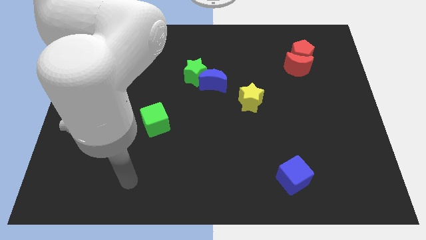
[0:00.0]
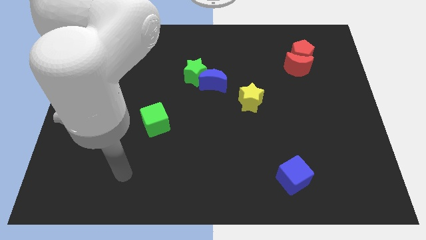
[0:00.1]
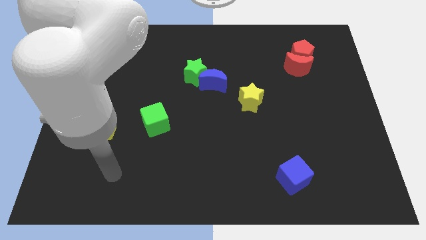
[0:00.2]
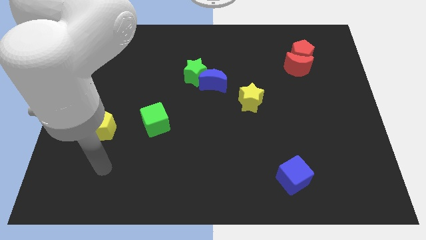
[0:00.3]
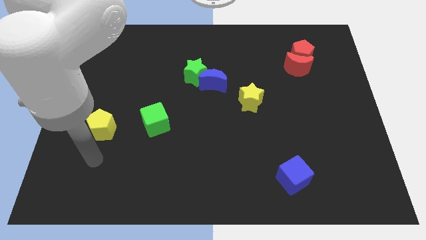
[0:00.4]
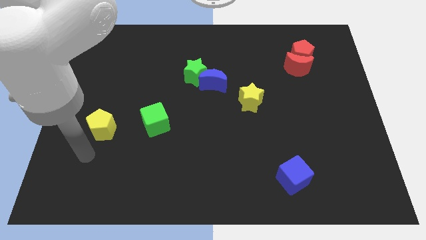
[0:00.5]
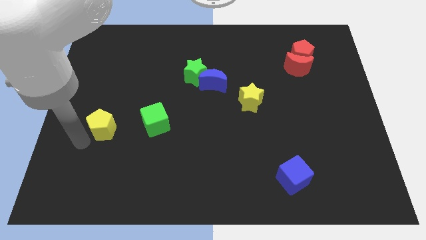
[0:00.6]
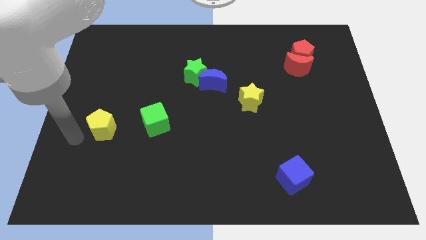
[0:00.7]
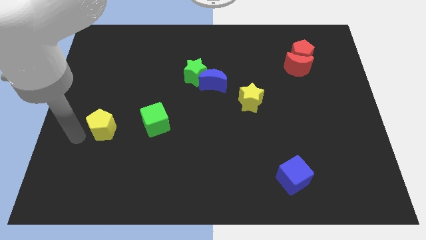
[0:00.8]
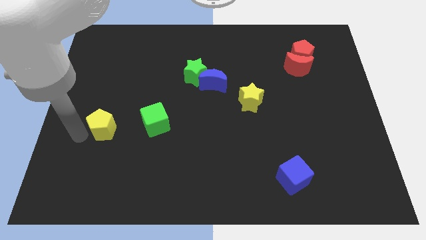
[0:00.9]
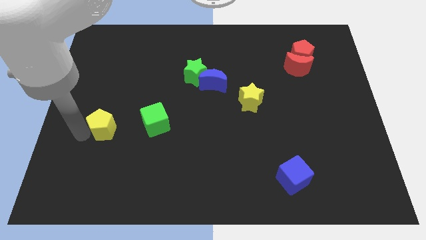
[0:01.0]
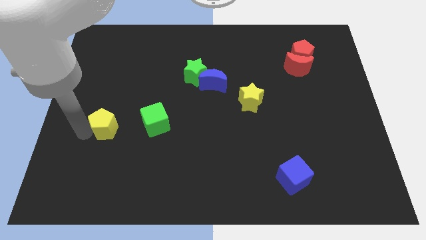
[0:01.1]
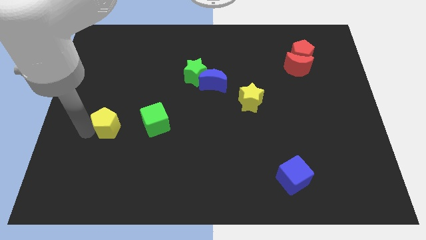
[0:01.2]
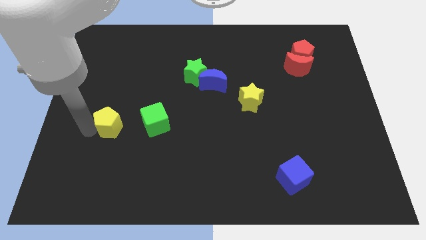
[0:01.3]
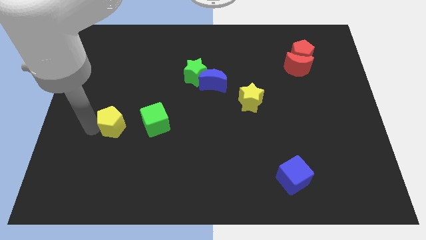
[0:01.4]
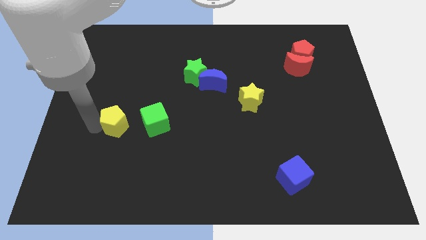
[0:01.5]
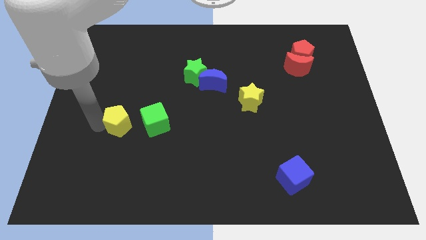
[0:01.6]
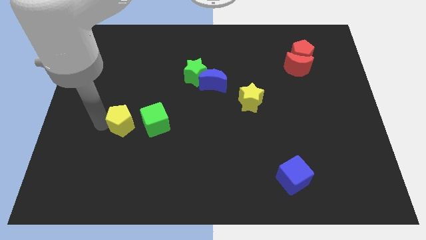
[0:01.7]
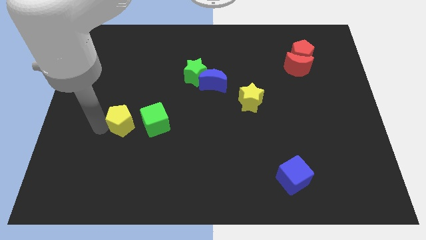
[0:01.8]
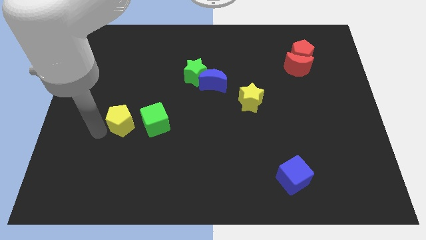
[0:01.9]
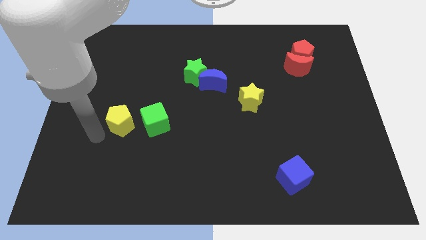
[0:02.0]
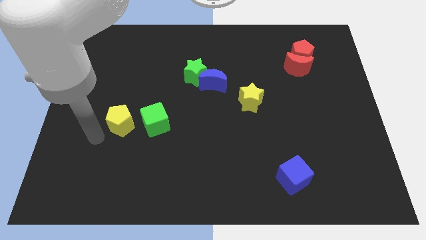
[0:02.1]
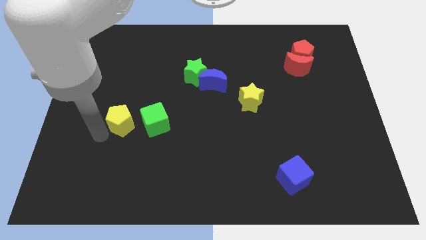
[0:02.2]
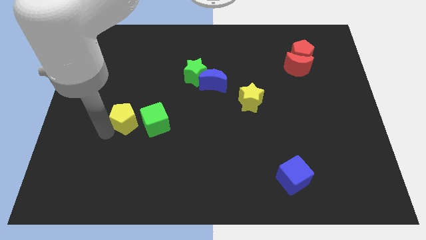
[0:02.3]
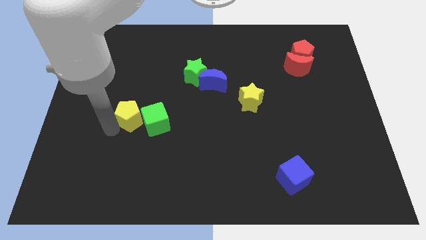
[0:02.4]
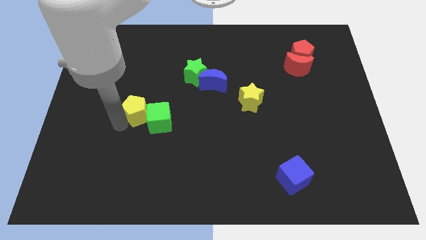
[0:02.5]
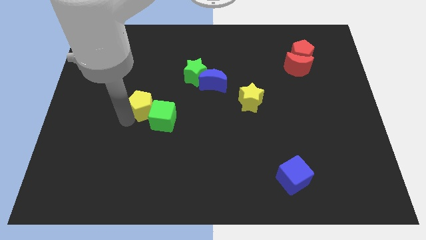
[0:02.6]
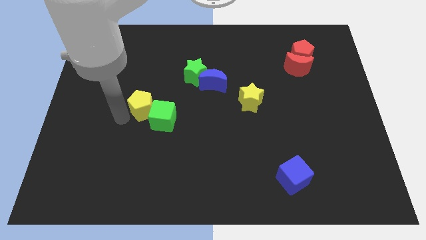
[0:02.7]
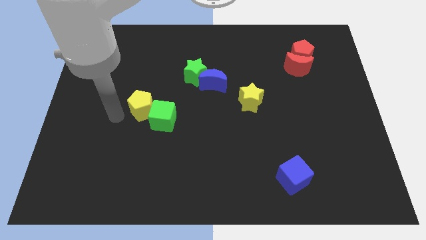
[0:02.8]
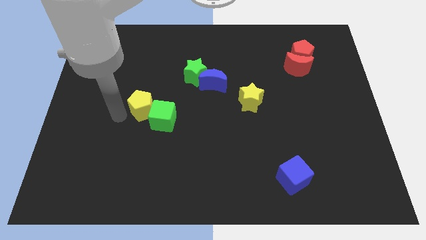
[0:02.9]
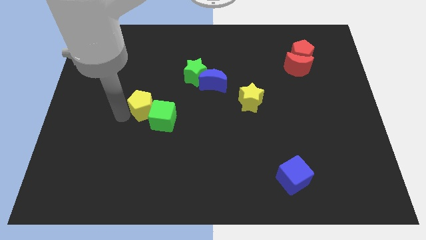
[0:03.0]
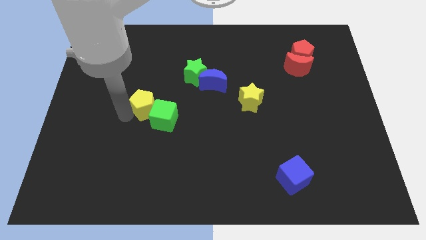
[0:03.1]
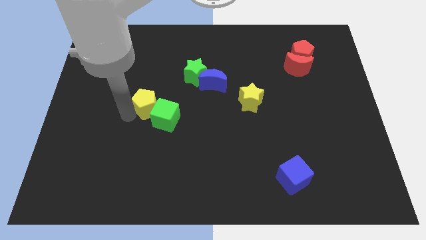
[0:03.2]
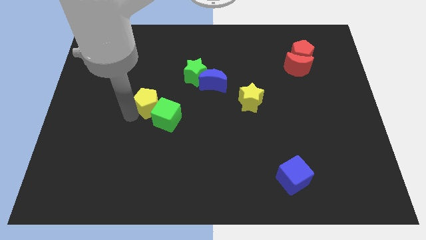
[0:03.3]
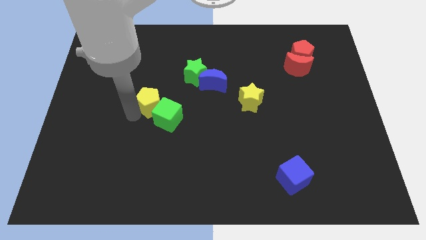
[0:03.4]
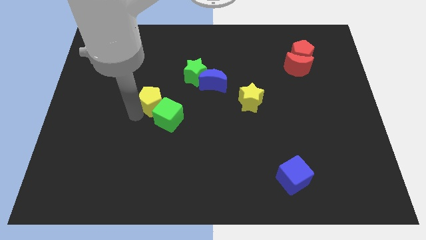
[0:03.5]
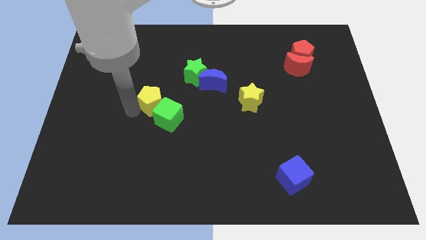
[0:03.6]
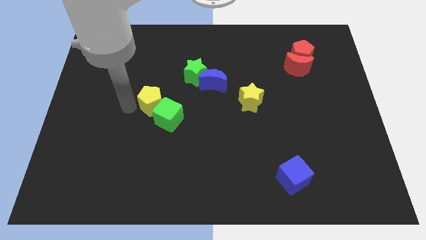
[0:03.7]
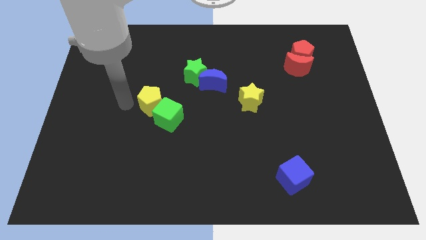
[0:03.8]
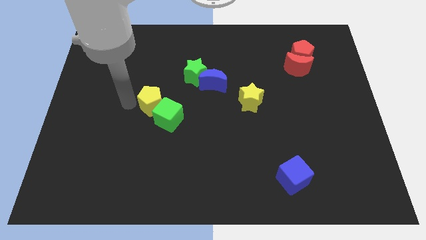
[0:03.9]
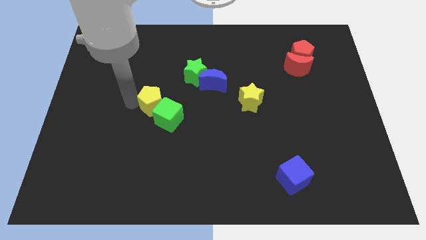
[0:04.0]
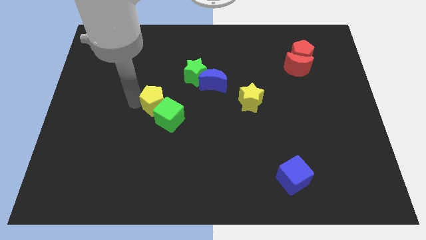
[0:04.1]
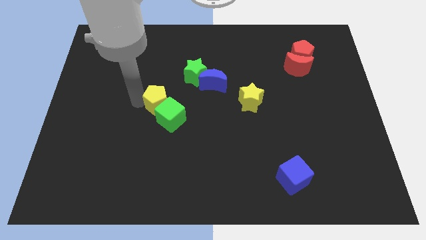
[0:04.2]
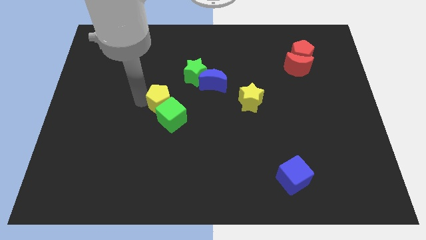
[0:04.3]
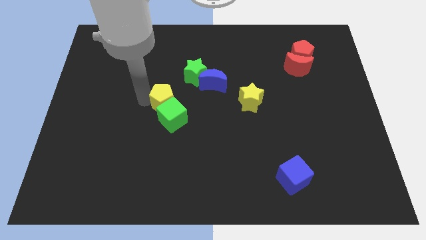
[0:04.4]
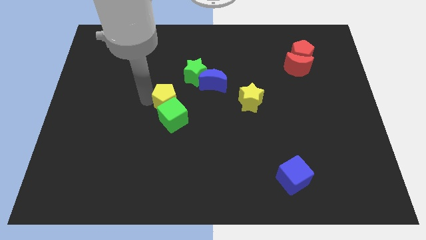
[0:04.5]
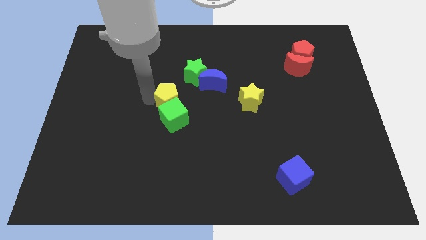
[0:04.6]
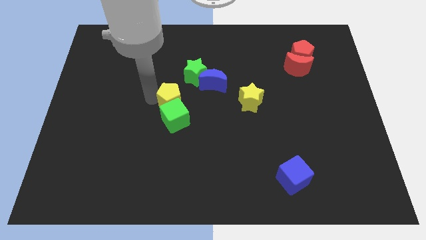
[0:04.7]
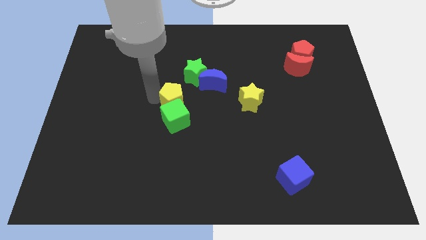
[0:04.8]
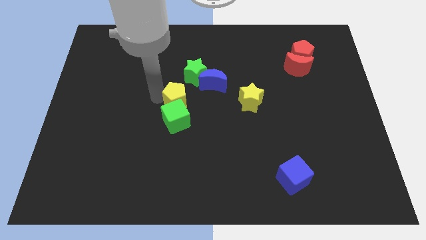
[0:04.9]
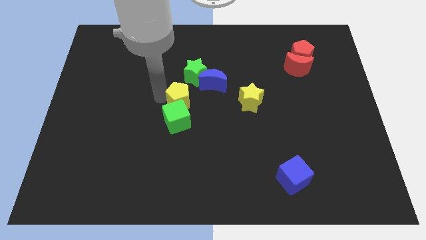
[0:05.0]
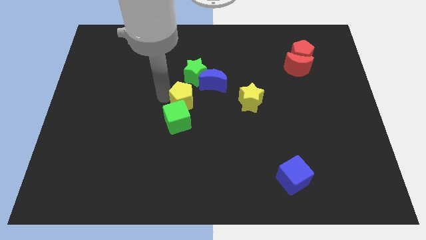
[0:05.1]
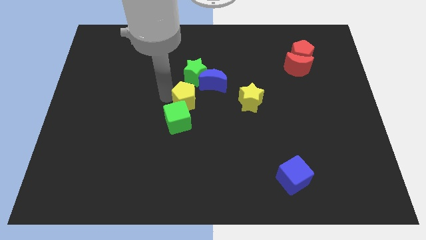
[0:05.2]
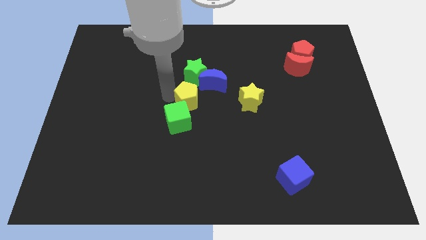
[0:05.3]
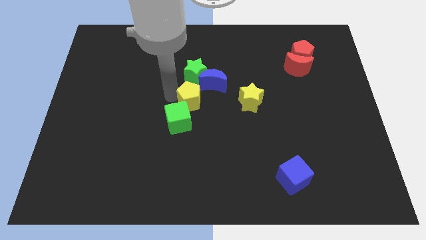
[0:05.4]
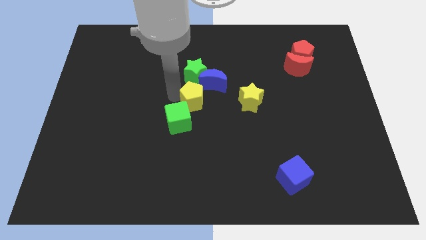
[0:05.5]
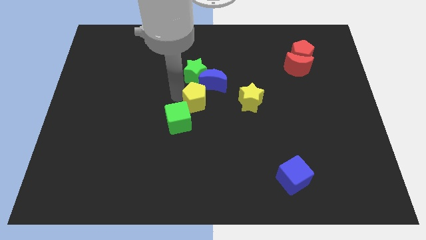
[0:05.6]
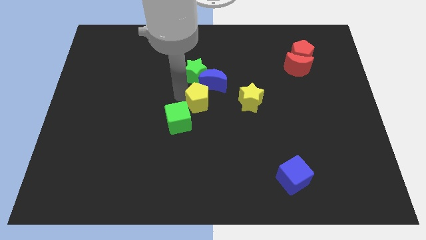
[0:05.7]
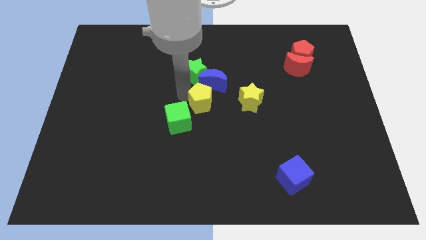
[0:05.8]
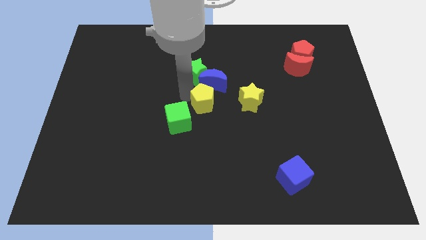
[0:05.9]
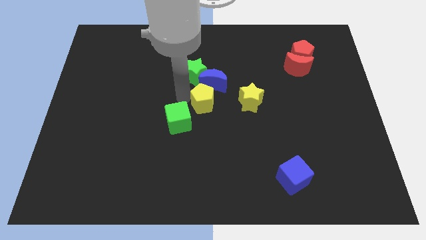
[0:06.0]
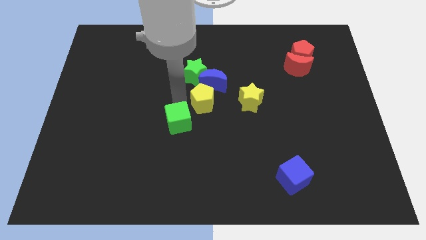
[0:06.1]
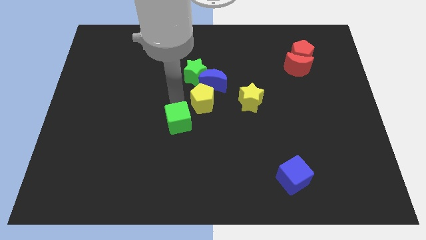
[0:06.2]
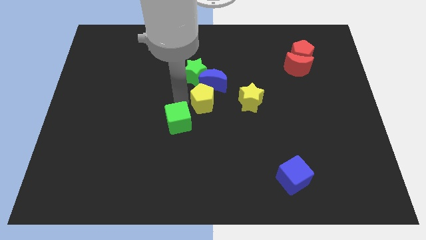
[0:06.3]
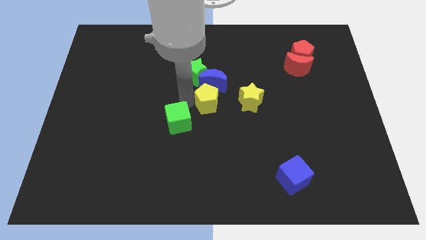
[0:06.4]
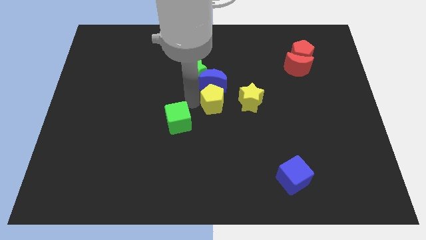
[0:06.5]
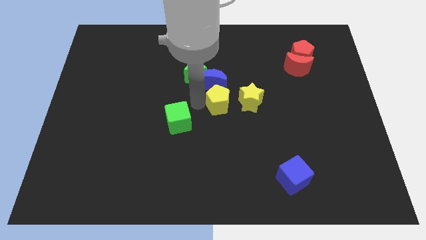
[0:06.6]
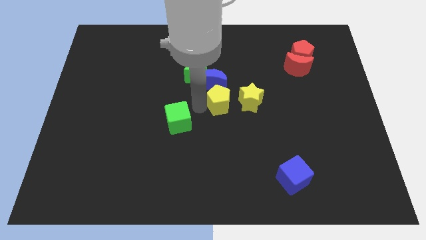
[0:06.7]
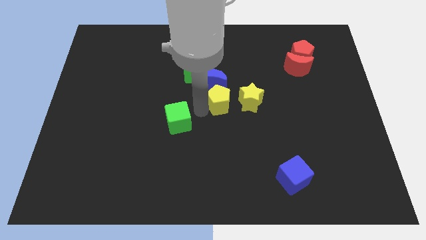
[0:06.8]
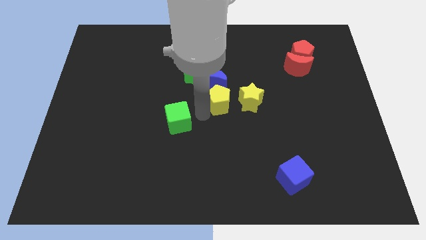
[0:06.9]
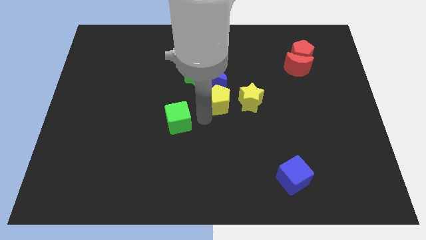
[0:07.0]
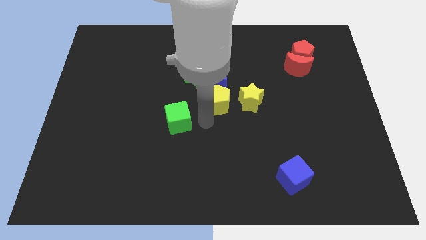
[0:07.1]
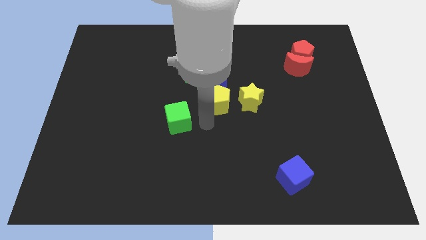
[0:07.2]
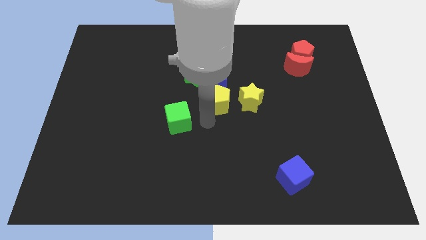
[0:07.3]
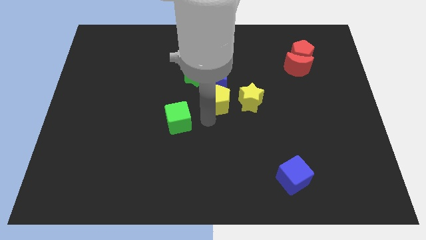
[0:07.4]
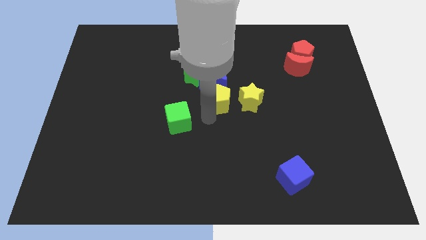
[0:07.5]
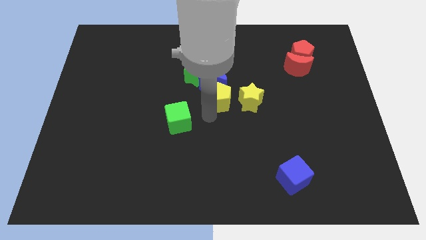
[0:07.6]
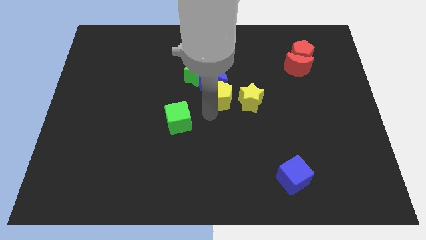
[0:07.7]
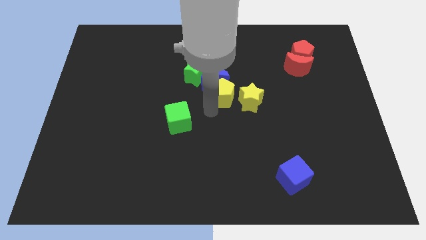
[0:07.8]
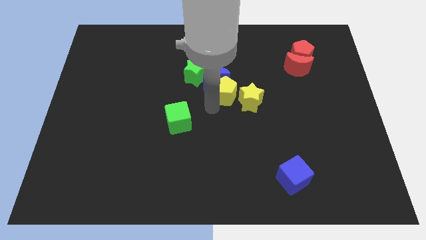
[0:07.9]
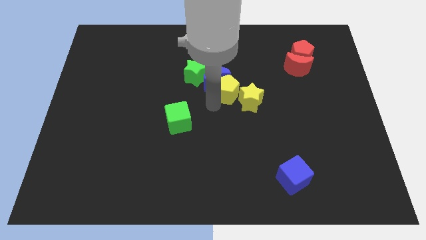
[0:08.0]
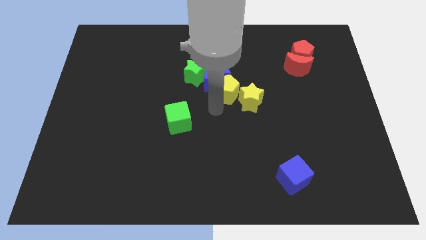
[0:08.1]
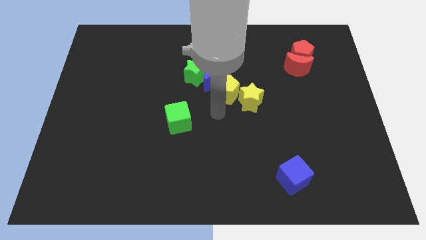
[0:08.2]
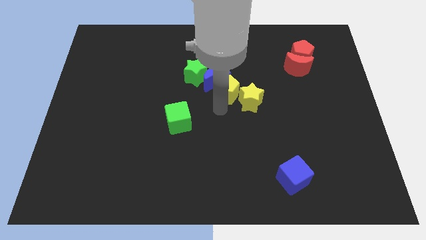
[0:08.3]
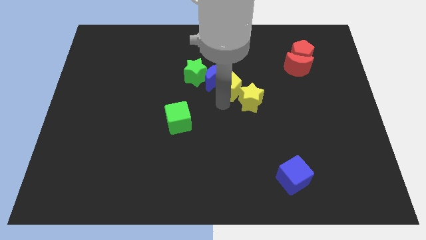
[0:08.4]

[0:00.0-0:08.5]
move the yellow pentagon to the right side of the green star
